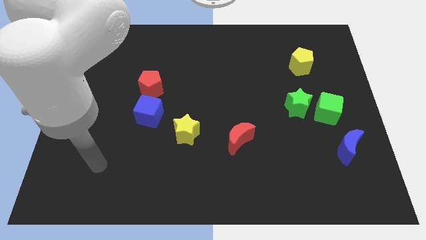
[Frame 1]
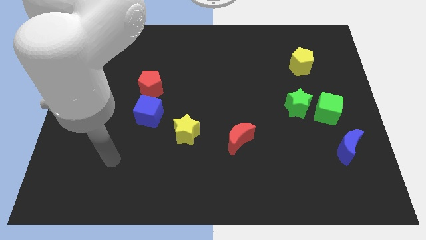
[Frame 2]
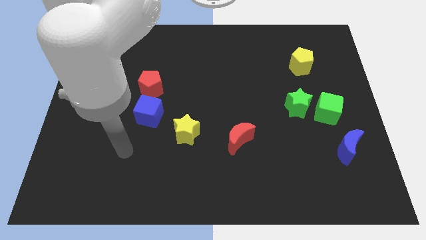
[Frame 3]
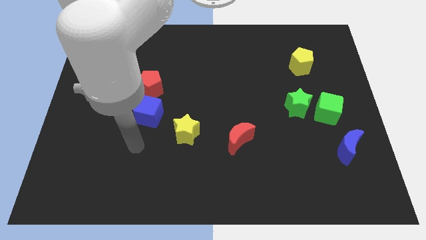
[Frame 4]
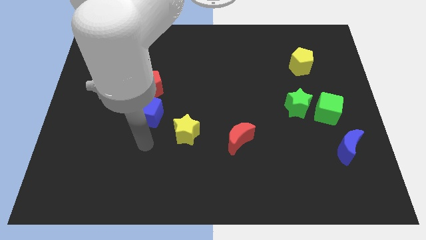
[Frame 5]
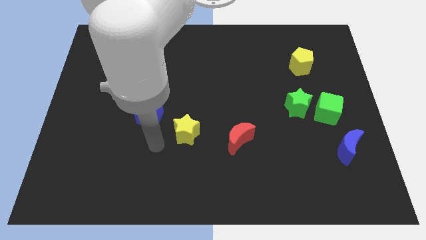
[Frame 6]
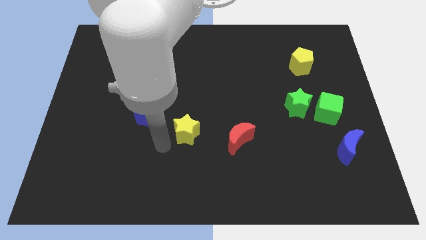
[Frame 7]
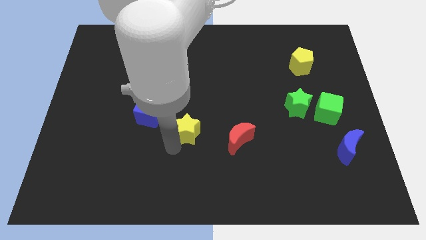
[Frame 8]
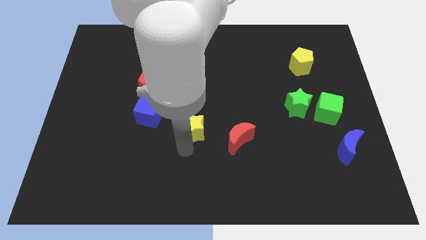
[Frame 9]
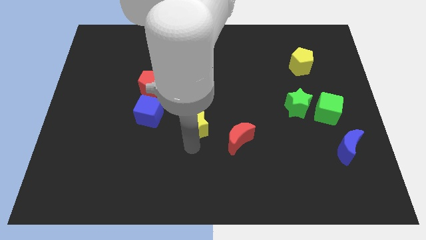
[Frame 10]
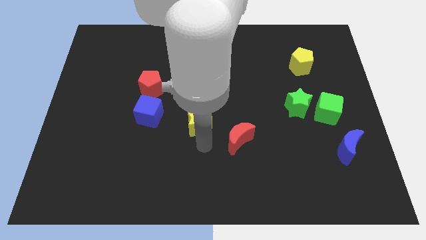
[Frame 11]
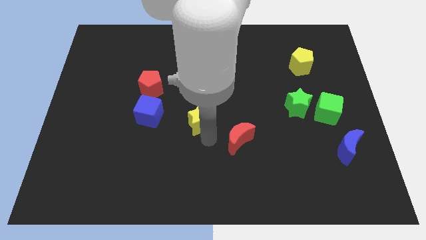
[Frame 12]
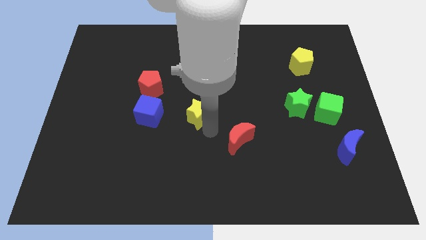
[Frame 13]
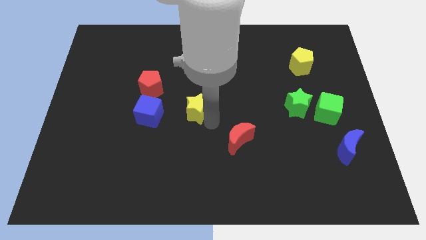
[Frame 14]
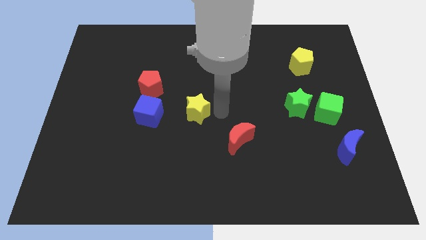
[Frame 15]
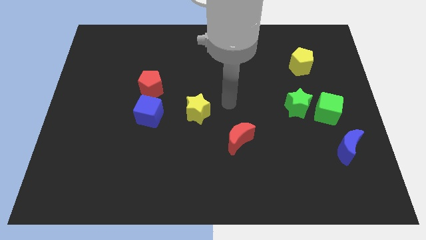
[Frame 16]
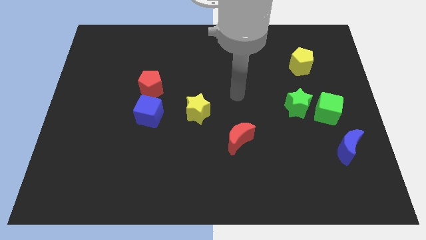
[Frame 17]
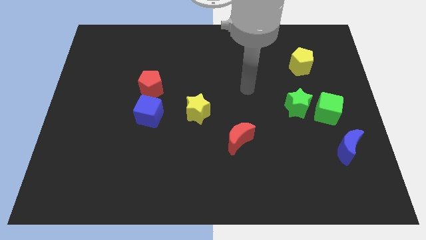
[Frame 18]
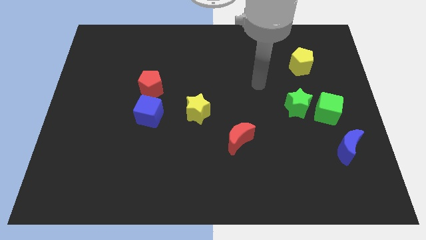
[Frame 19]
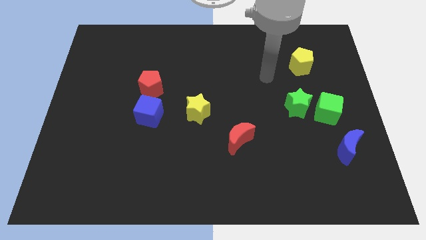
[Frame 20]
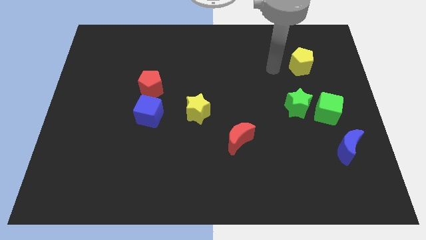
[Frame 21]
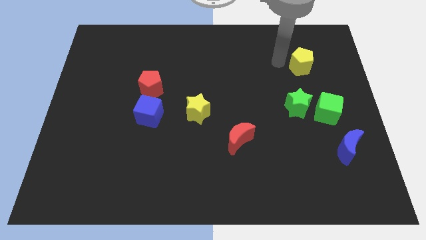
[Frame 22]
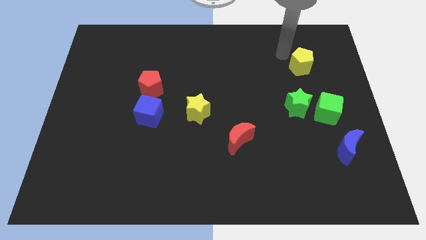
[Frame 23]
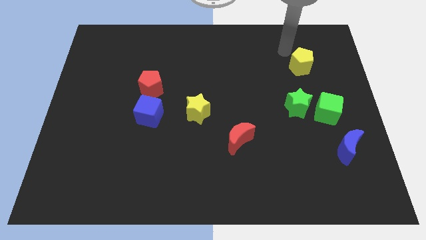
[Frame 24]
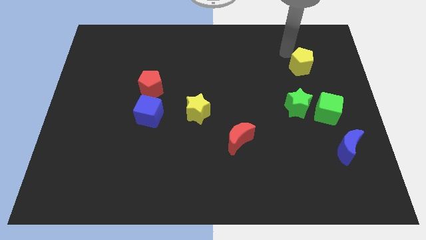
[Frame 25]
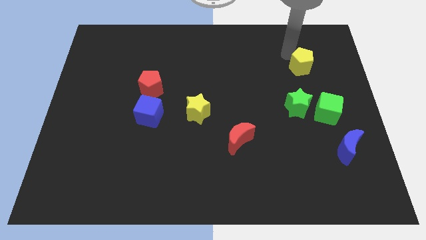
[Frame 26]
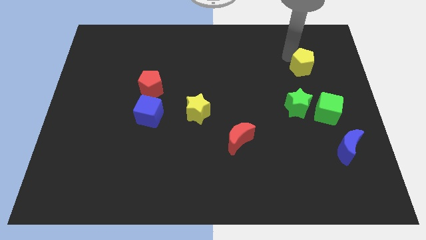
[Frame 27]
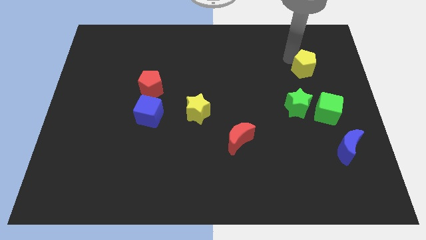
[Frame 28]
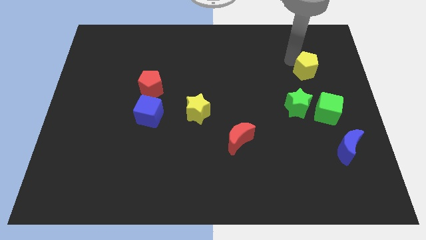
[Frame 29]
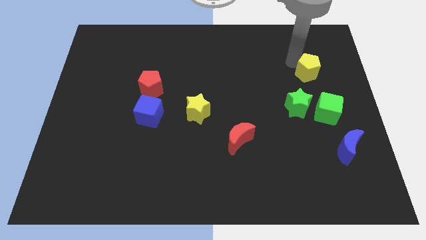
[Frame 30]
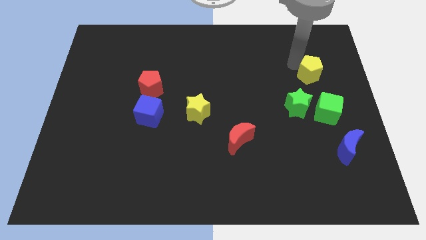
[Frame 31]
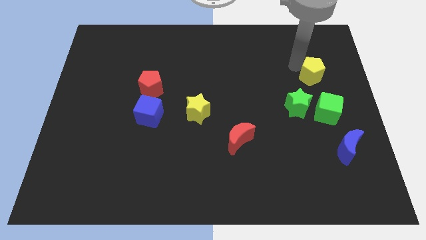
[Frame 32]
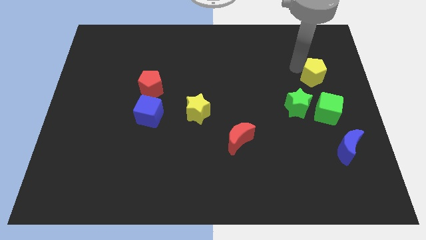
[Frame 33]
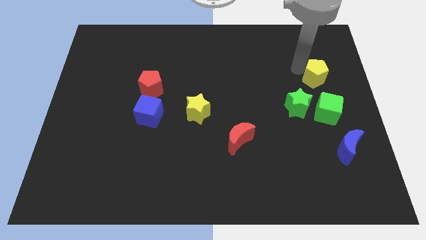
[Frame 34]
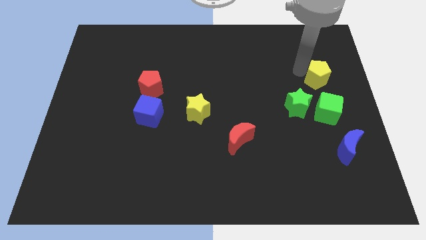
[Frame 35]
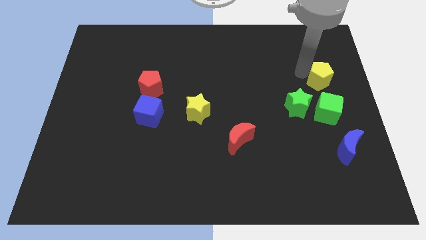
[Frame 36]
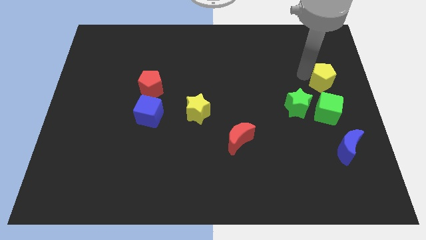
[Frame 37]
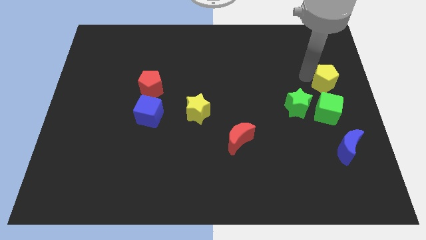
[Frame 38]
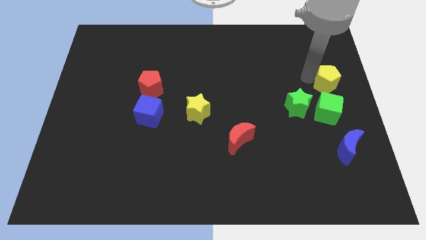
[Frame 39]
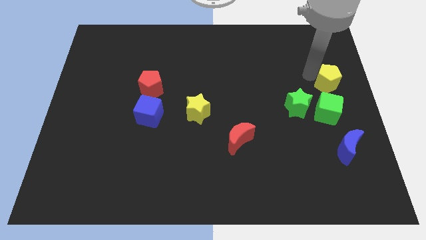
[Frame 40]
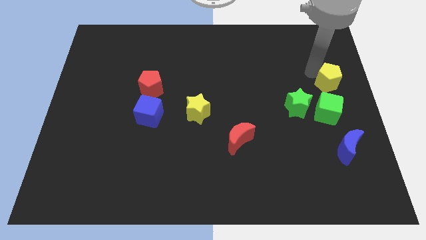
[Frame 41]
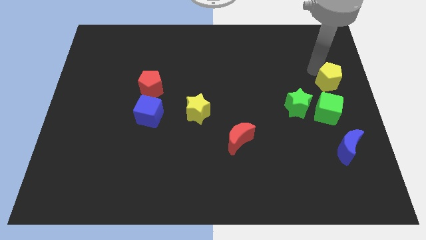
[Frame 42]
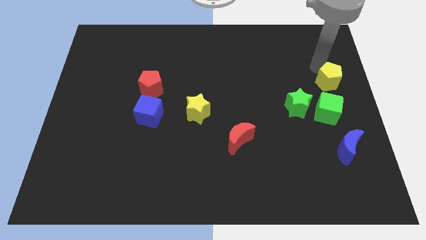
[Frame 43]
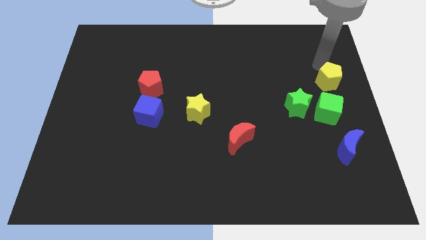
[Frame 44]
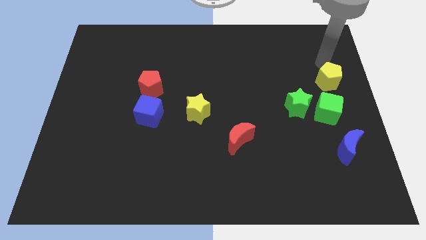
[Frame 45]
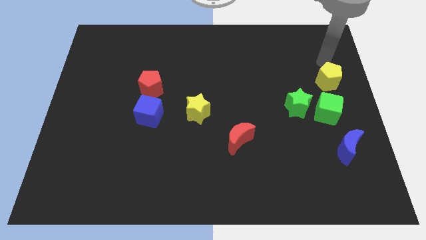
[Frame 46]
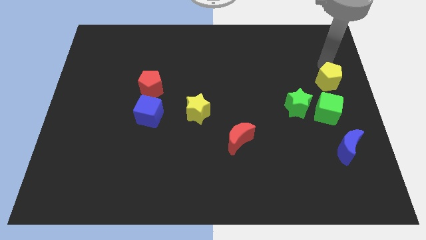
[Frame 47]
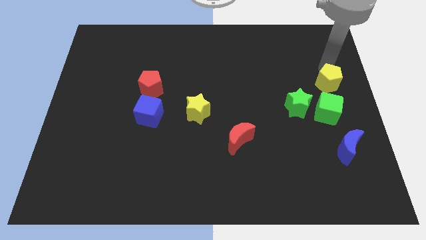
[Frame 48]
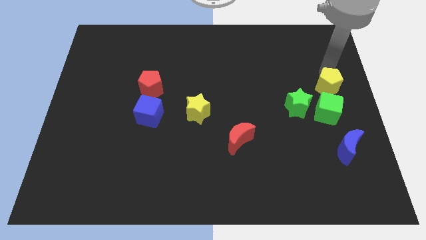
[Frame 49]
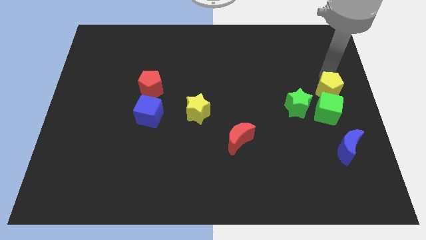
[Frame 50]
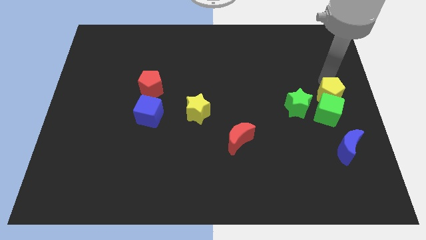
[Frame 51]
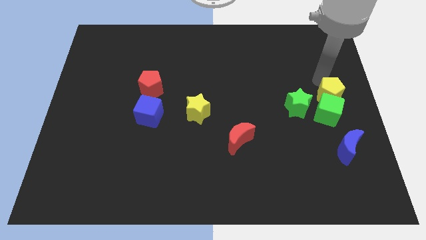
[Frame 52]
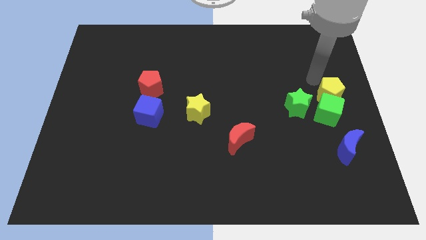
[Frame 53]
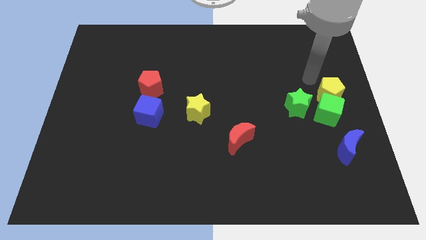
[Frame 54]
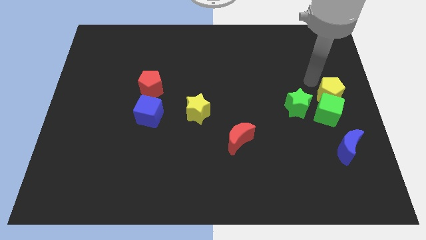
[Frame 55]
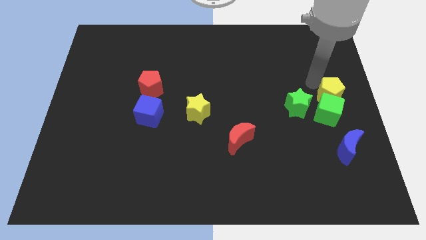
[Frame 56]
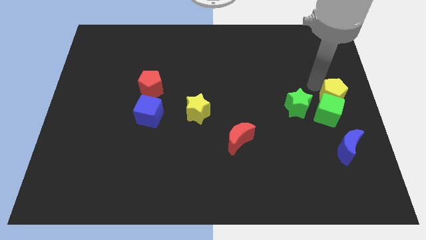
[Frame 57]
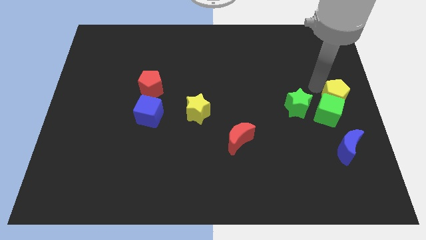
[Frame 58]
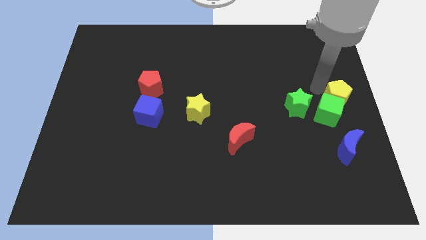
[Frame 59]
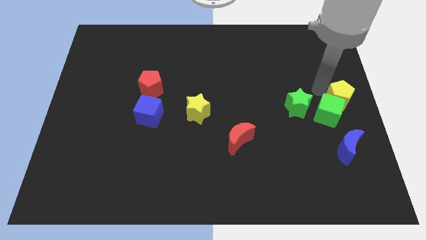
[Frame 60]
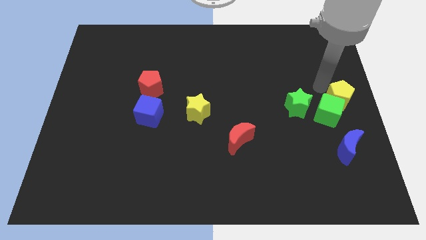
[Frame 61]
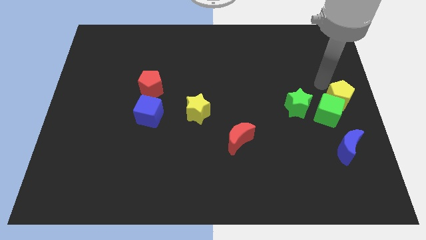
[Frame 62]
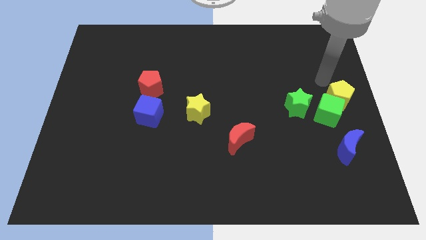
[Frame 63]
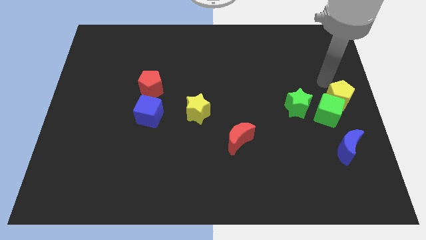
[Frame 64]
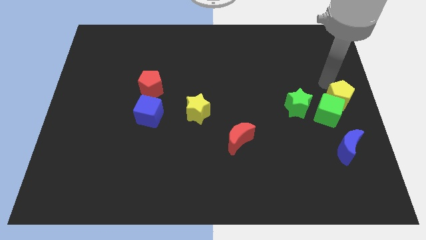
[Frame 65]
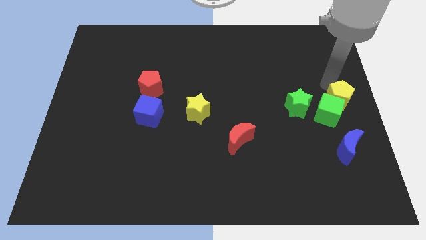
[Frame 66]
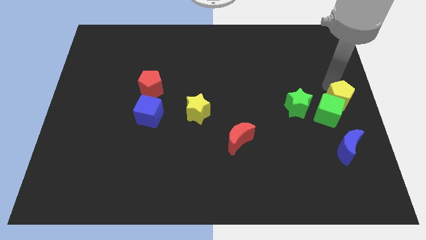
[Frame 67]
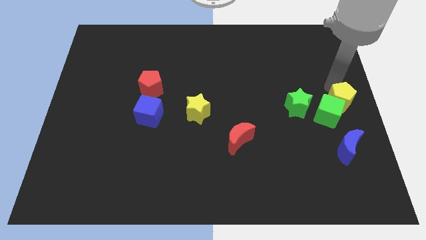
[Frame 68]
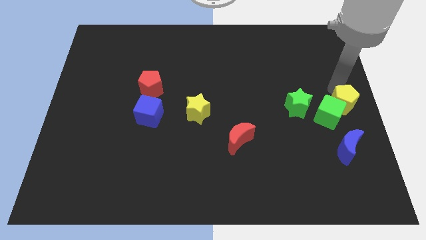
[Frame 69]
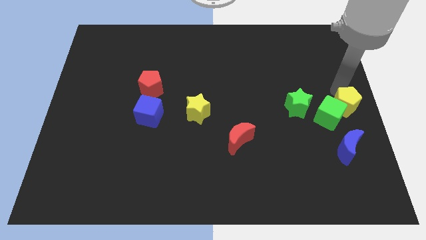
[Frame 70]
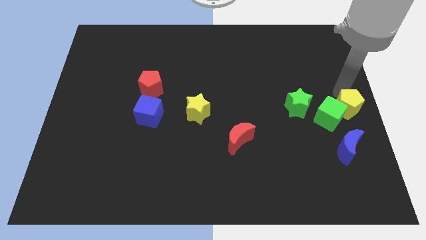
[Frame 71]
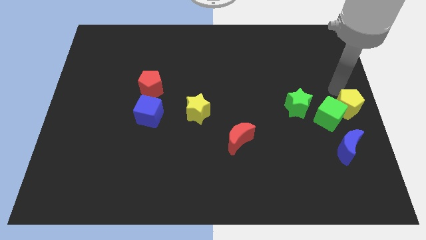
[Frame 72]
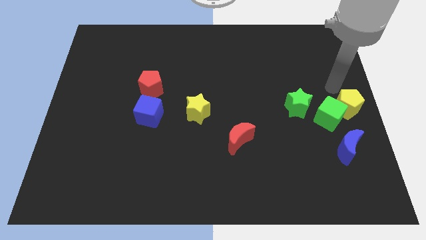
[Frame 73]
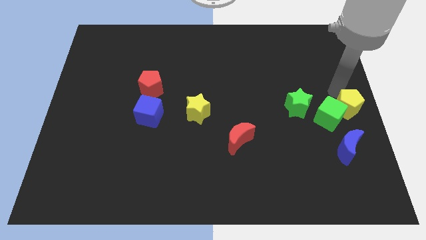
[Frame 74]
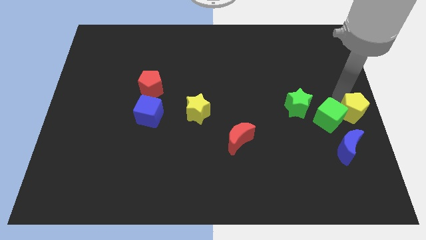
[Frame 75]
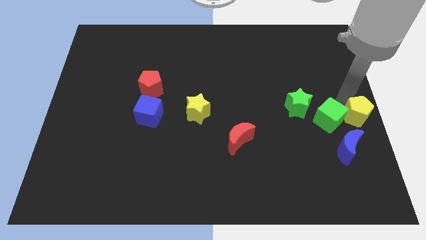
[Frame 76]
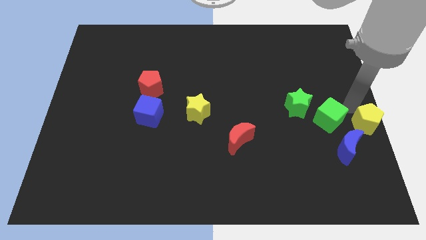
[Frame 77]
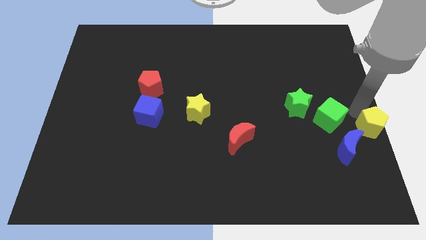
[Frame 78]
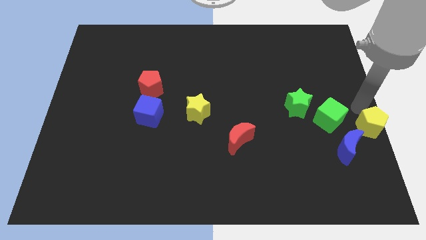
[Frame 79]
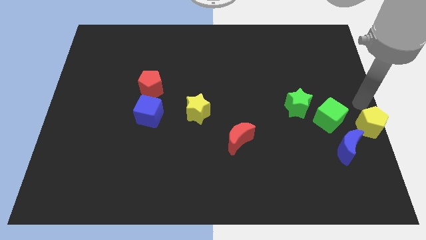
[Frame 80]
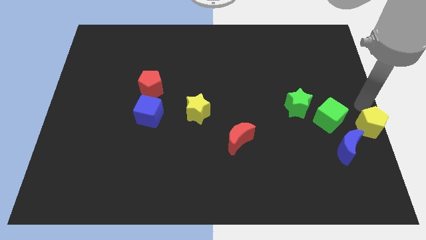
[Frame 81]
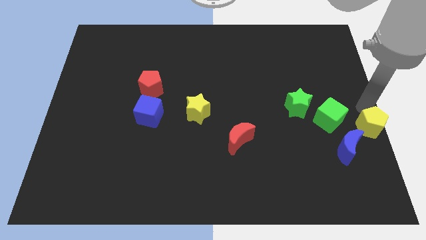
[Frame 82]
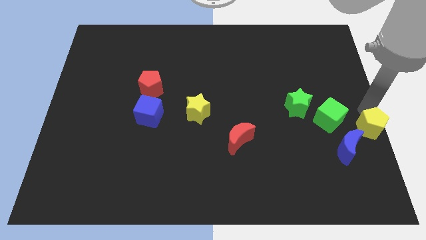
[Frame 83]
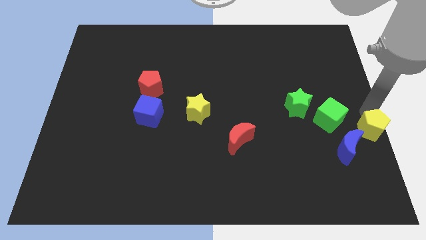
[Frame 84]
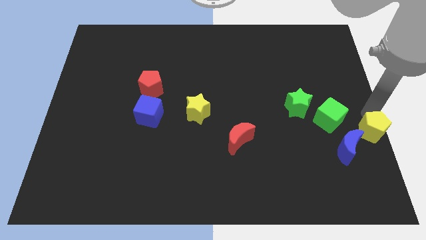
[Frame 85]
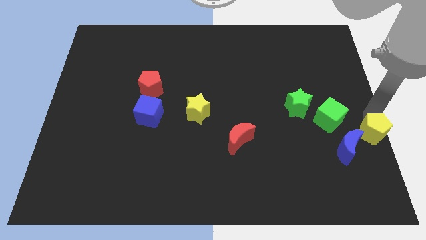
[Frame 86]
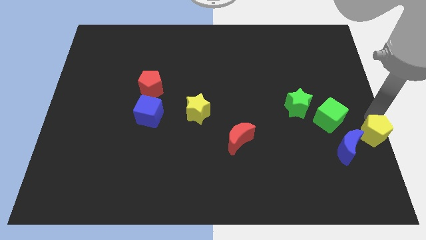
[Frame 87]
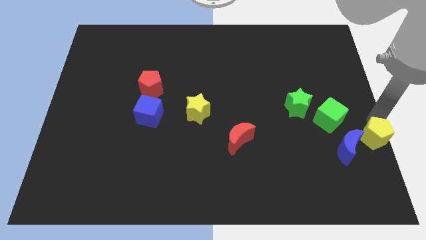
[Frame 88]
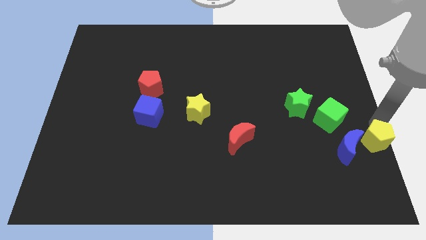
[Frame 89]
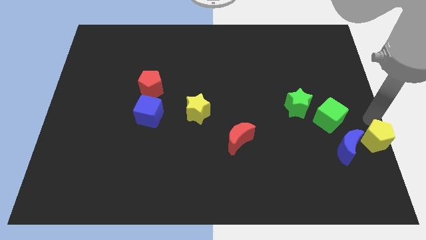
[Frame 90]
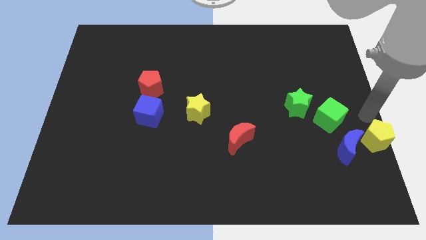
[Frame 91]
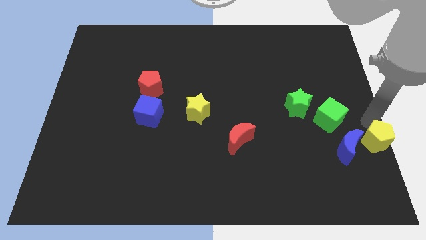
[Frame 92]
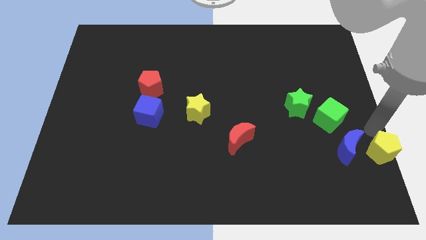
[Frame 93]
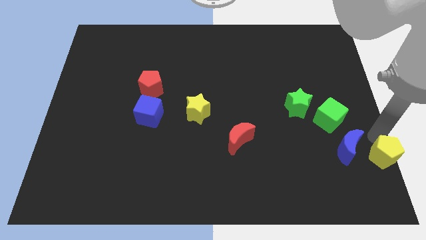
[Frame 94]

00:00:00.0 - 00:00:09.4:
push the yellow pentagon to the bottom right
